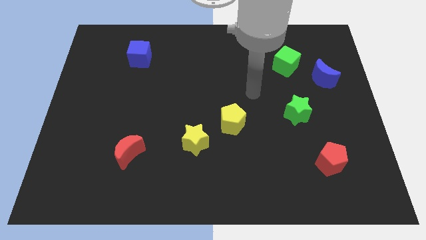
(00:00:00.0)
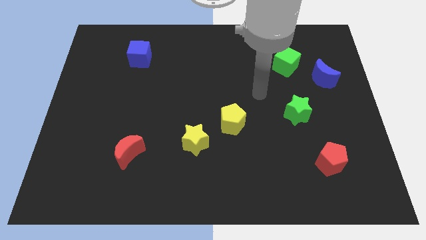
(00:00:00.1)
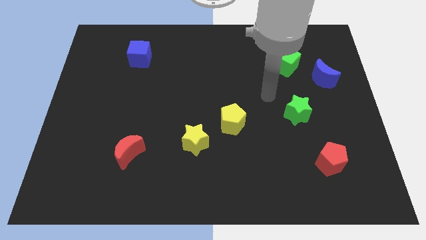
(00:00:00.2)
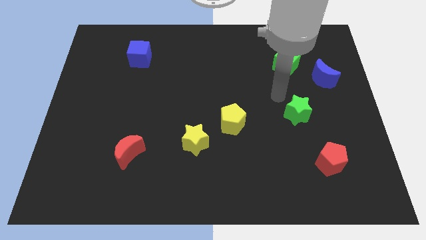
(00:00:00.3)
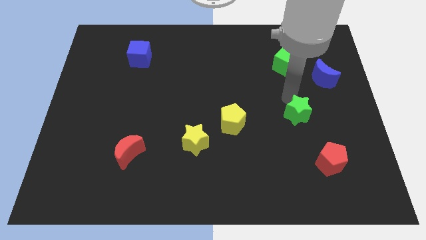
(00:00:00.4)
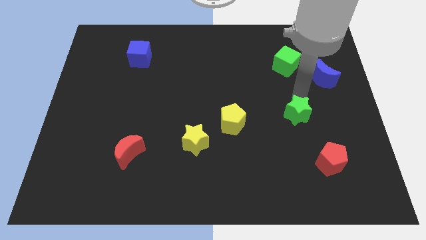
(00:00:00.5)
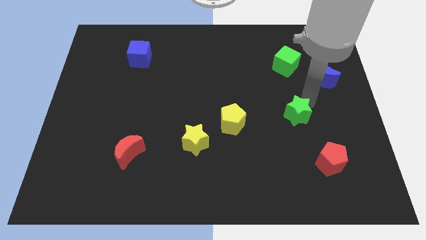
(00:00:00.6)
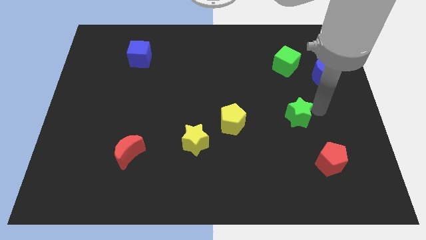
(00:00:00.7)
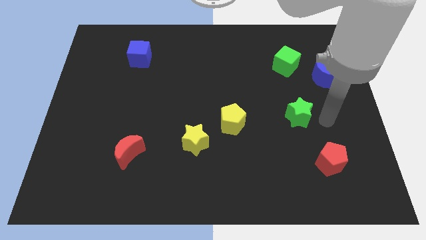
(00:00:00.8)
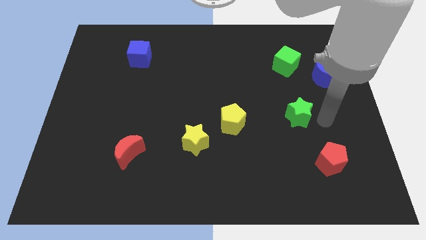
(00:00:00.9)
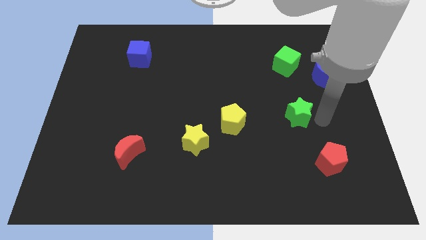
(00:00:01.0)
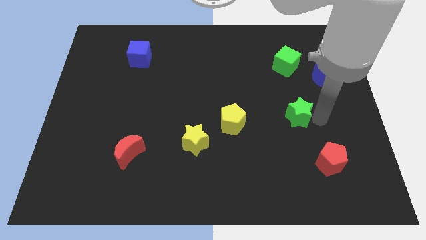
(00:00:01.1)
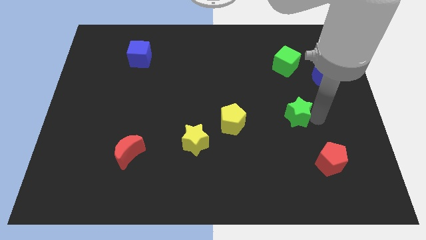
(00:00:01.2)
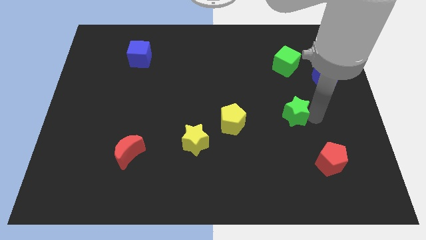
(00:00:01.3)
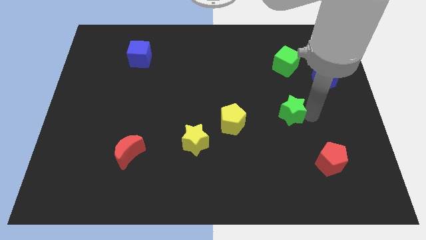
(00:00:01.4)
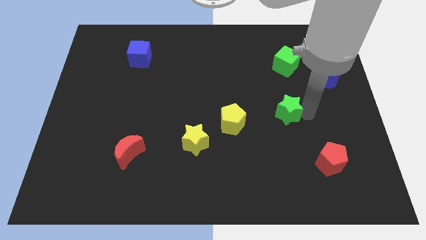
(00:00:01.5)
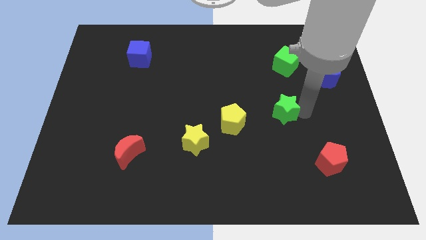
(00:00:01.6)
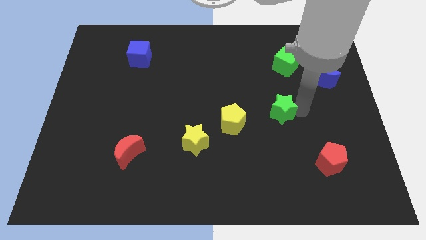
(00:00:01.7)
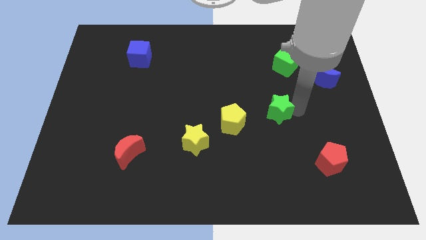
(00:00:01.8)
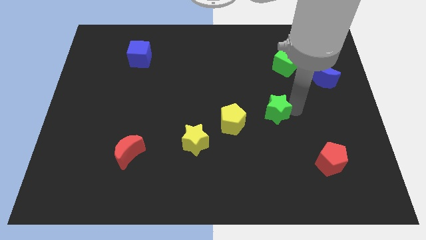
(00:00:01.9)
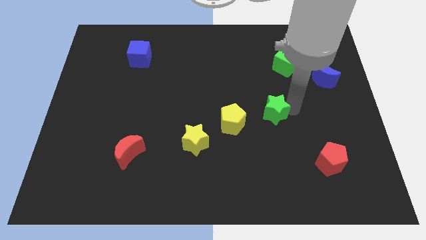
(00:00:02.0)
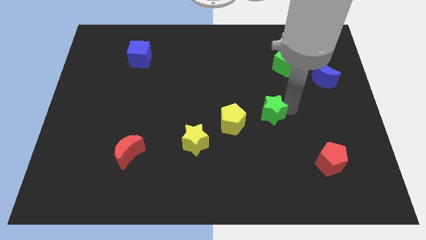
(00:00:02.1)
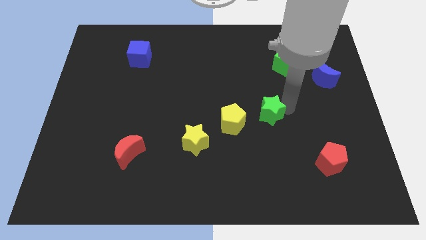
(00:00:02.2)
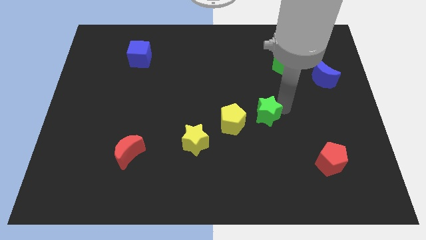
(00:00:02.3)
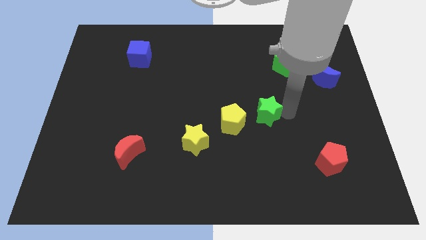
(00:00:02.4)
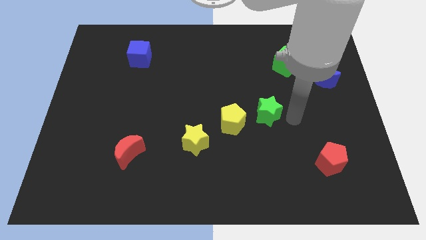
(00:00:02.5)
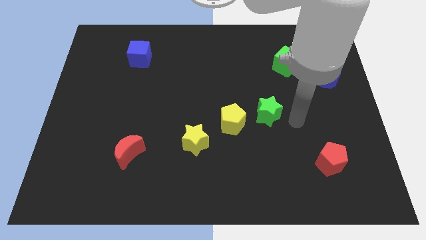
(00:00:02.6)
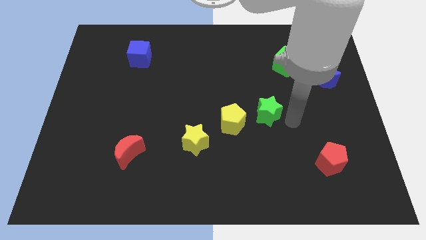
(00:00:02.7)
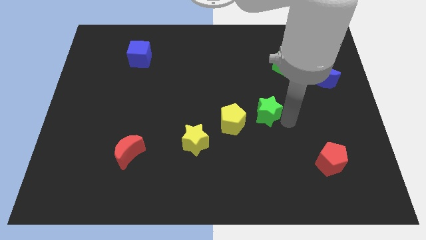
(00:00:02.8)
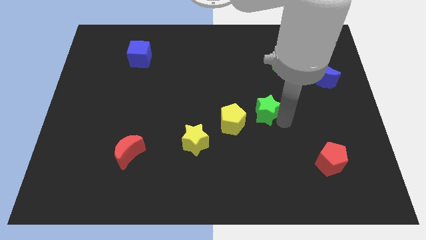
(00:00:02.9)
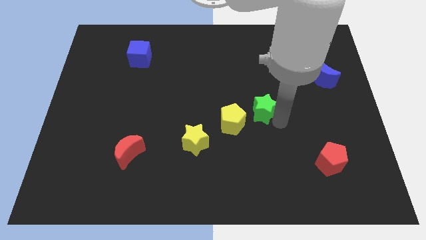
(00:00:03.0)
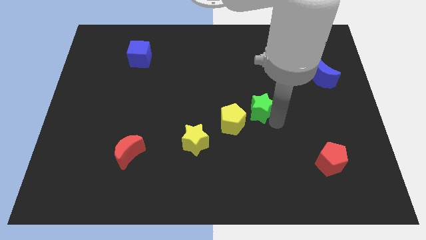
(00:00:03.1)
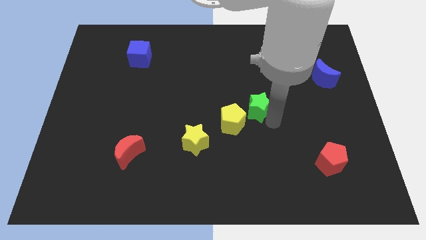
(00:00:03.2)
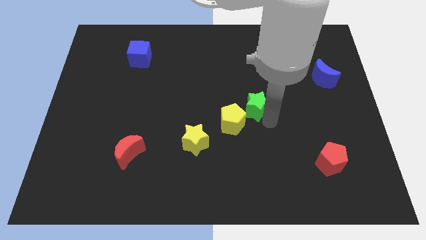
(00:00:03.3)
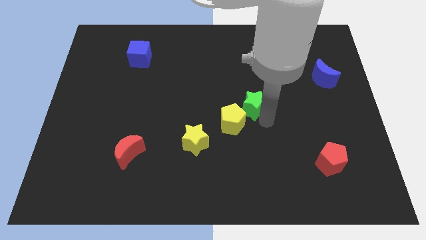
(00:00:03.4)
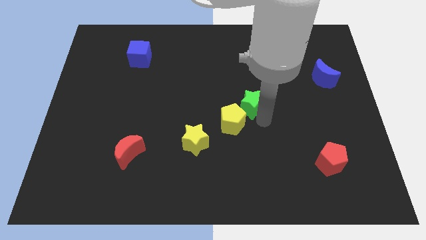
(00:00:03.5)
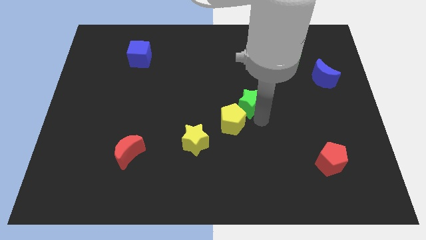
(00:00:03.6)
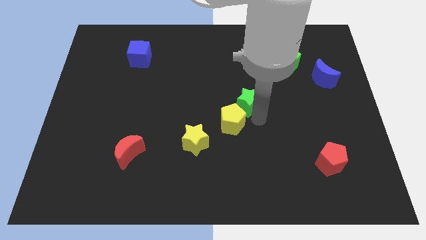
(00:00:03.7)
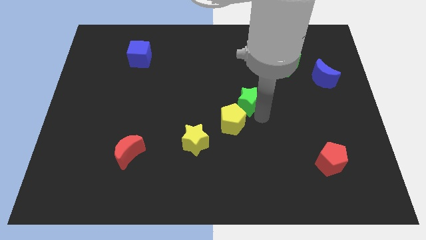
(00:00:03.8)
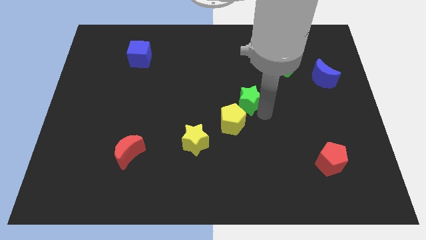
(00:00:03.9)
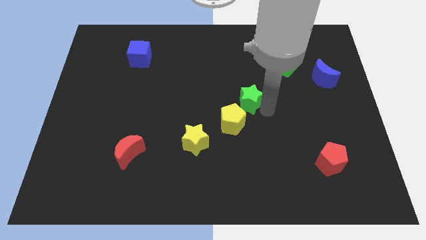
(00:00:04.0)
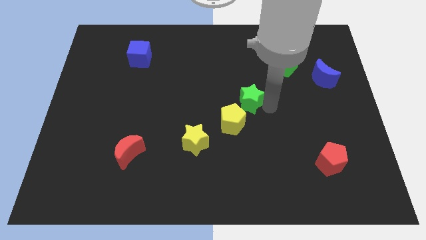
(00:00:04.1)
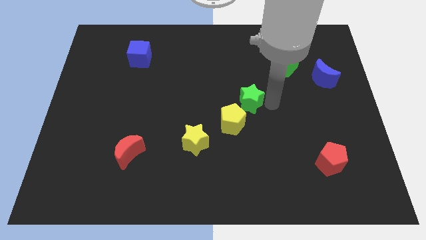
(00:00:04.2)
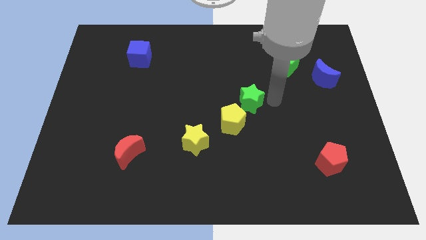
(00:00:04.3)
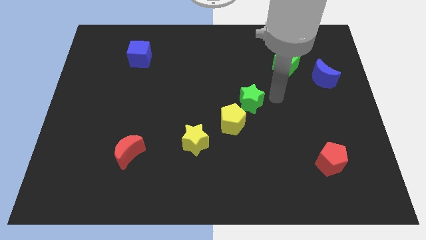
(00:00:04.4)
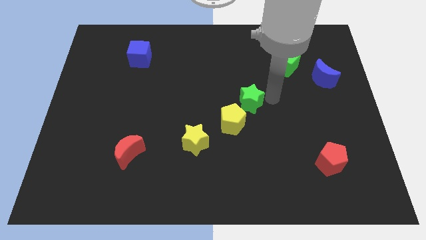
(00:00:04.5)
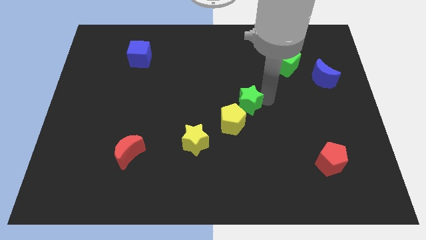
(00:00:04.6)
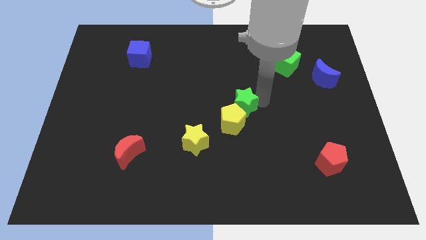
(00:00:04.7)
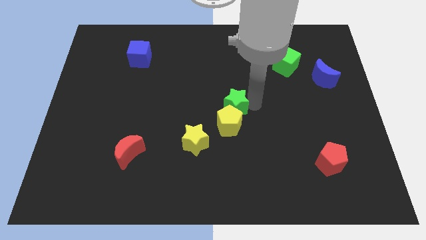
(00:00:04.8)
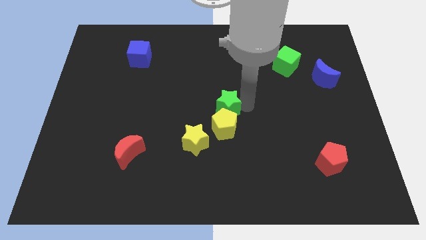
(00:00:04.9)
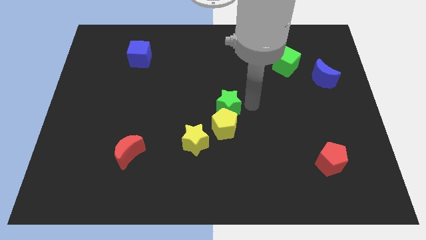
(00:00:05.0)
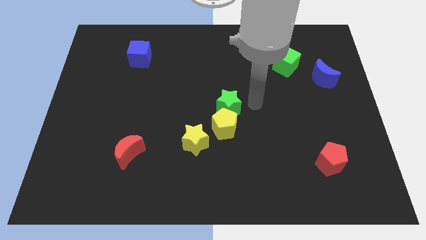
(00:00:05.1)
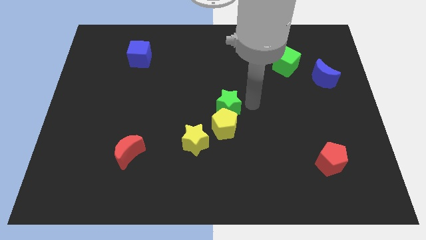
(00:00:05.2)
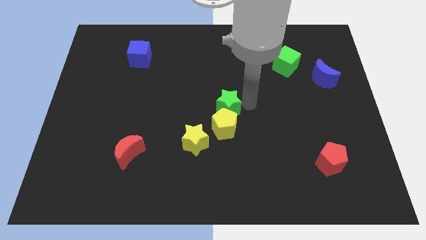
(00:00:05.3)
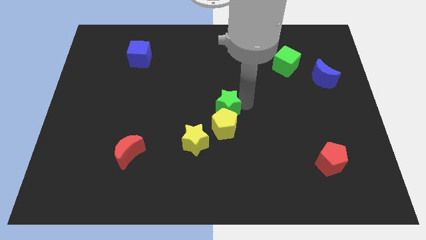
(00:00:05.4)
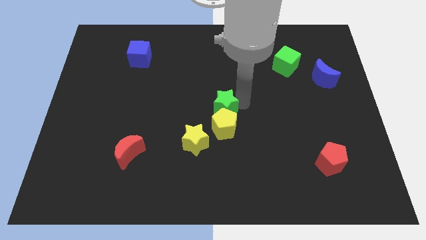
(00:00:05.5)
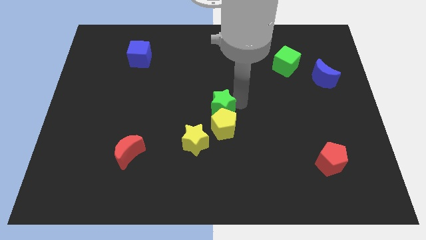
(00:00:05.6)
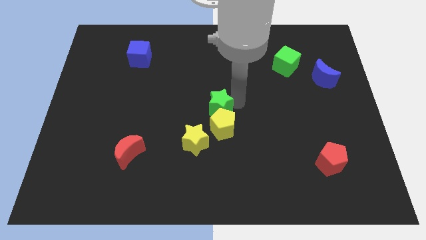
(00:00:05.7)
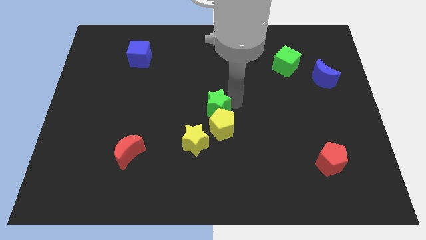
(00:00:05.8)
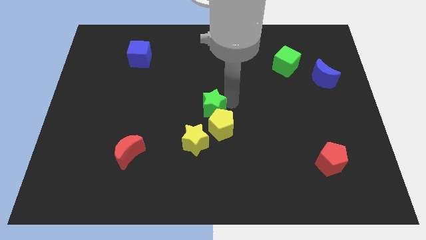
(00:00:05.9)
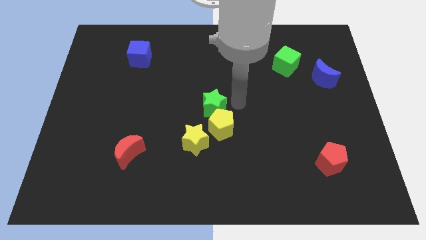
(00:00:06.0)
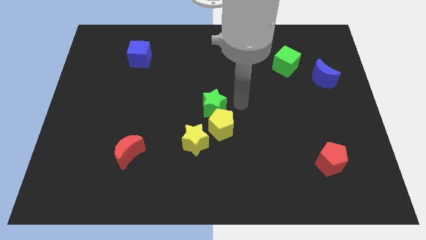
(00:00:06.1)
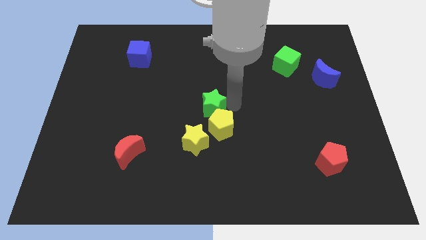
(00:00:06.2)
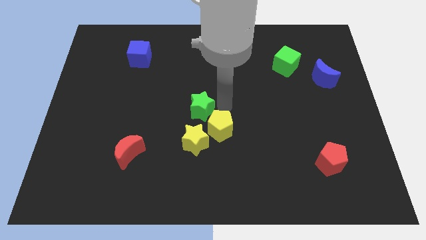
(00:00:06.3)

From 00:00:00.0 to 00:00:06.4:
move the green star left

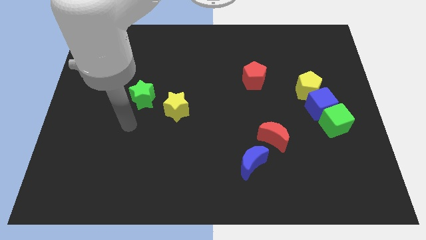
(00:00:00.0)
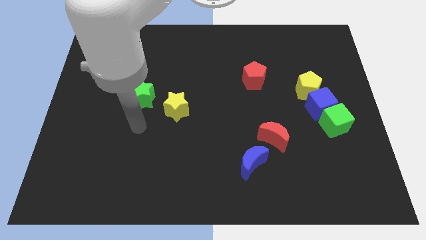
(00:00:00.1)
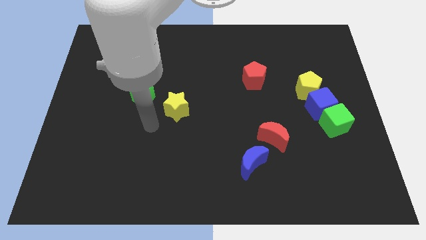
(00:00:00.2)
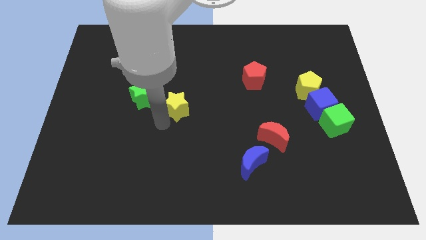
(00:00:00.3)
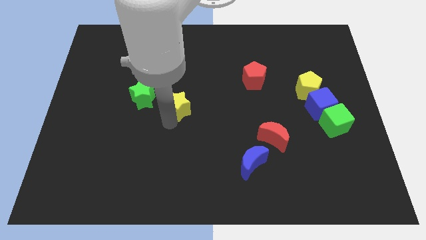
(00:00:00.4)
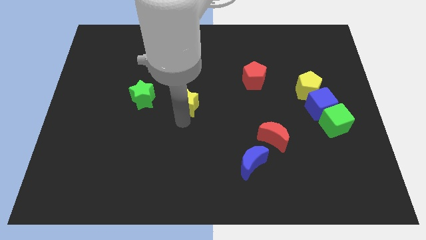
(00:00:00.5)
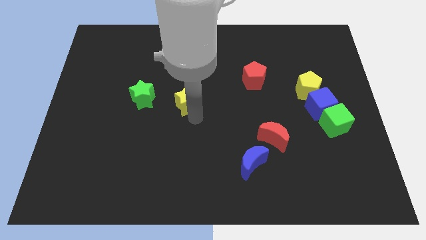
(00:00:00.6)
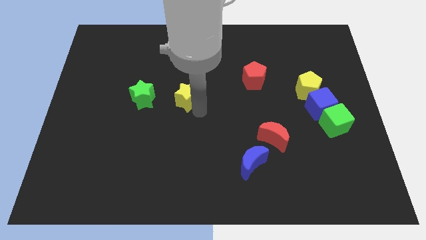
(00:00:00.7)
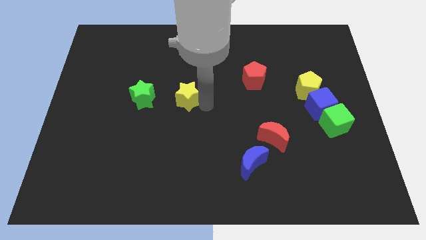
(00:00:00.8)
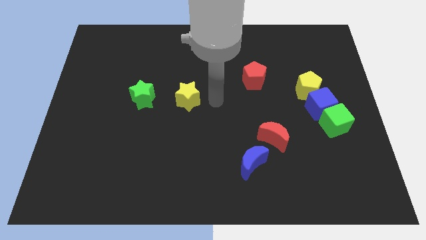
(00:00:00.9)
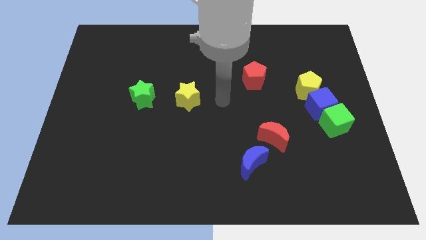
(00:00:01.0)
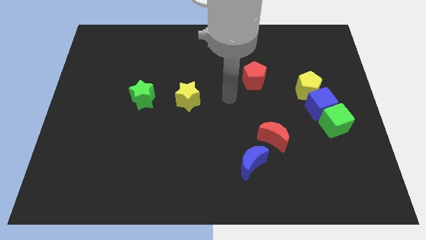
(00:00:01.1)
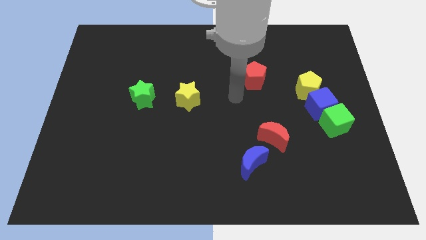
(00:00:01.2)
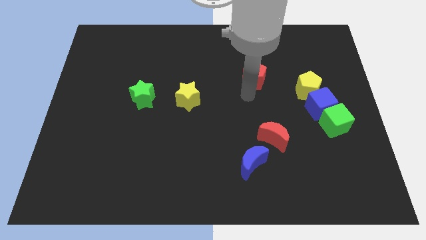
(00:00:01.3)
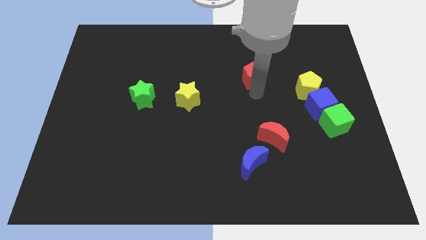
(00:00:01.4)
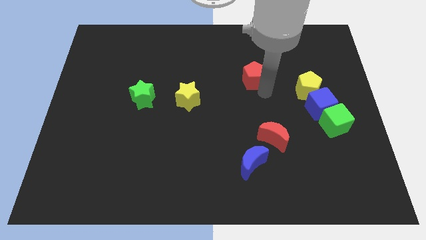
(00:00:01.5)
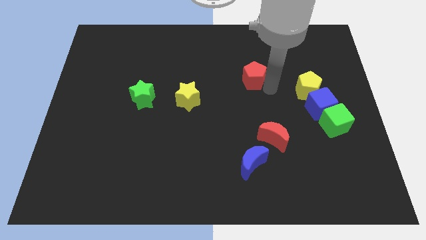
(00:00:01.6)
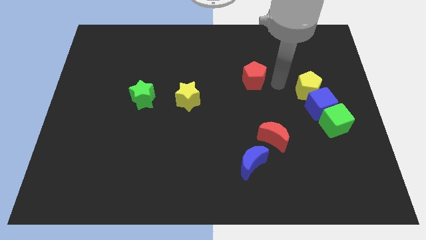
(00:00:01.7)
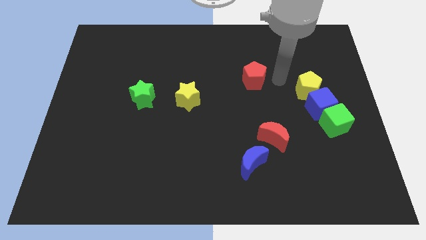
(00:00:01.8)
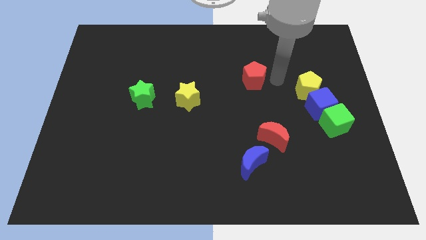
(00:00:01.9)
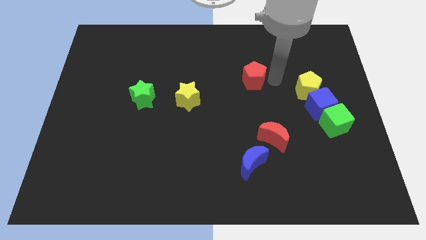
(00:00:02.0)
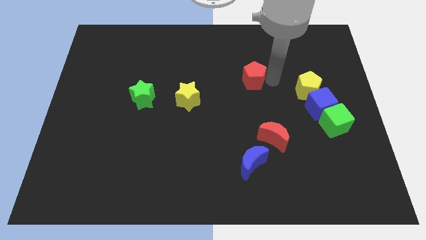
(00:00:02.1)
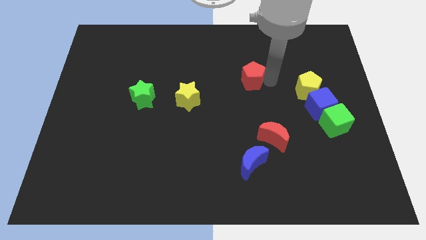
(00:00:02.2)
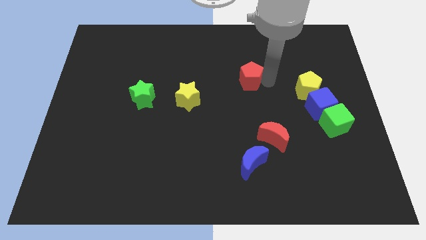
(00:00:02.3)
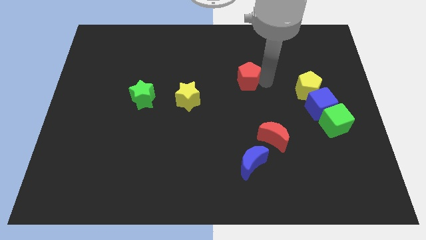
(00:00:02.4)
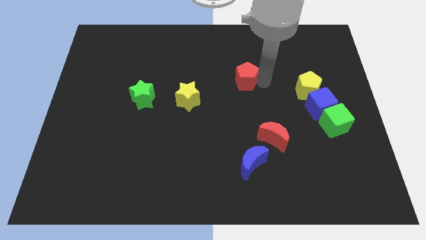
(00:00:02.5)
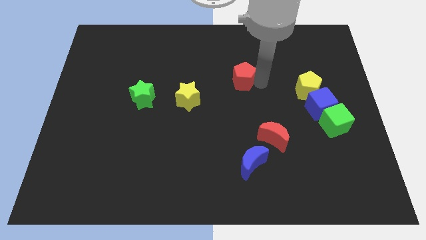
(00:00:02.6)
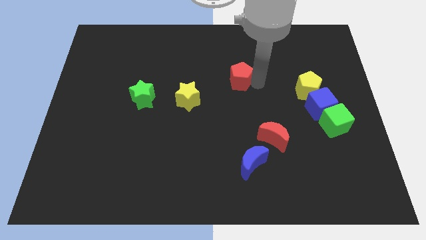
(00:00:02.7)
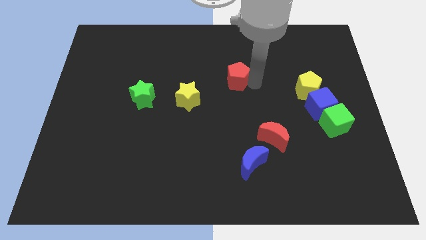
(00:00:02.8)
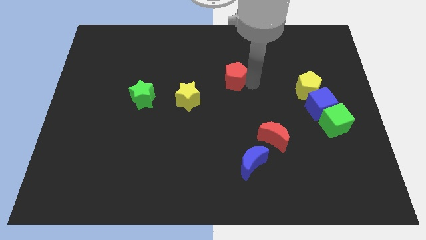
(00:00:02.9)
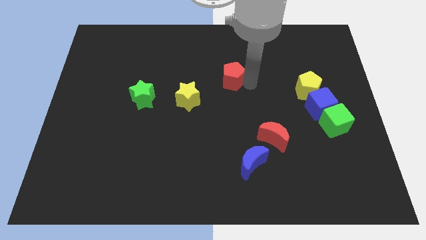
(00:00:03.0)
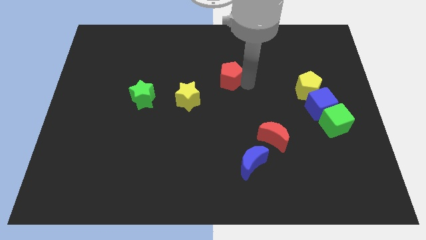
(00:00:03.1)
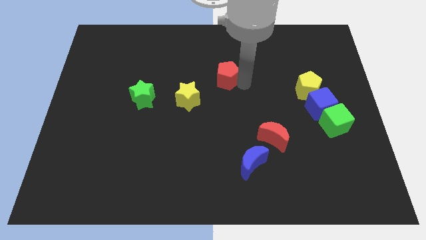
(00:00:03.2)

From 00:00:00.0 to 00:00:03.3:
slide the red pentagon left somewhat
